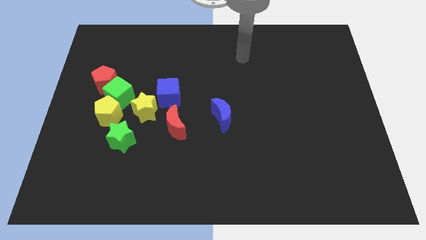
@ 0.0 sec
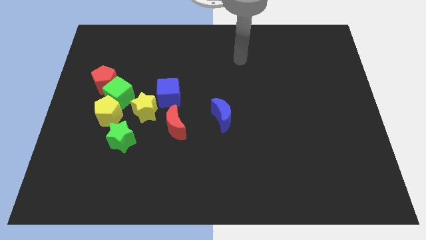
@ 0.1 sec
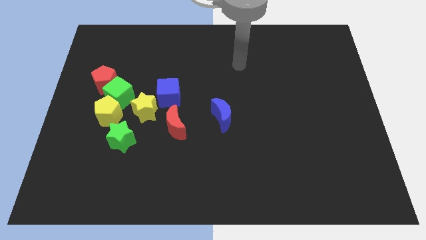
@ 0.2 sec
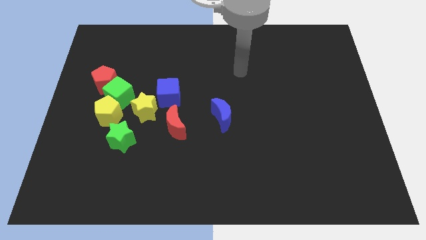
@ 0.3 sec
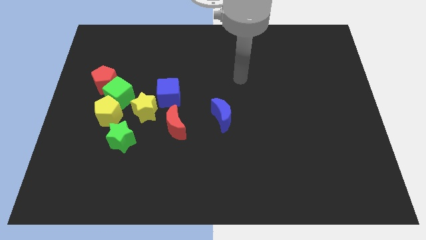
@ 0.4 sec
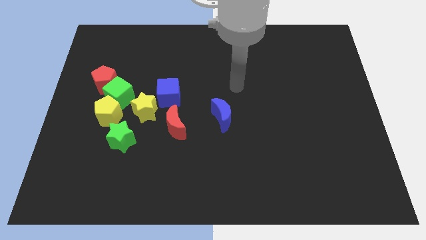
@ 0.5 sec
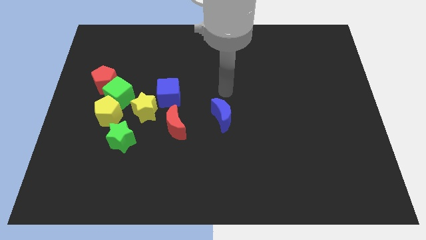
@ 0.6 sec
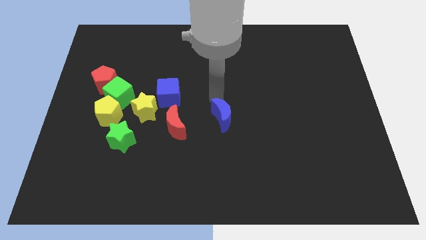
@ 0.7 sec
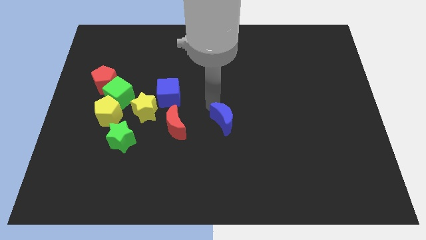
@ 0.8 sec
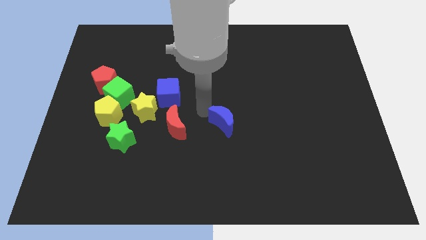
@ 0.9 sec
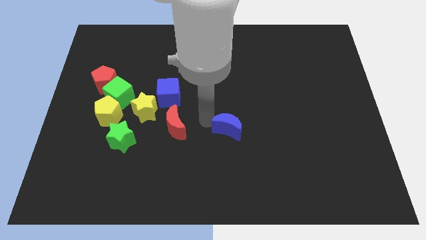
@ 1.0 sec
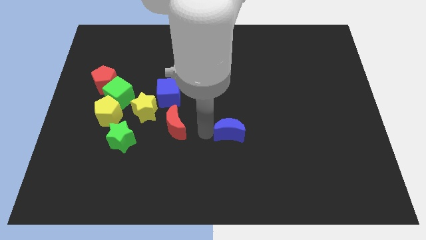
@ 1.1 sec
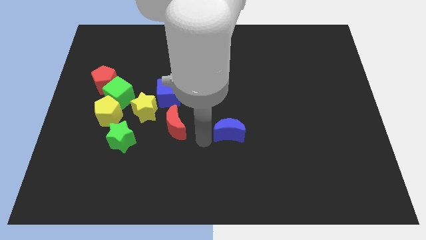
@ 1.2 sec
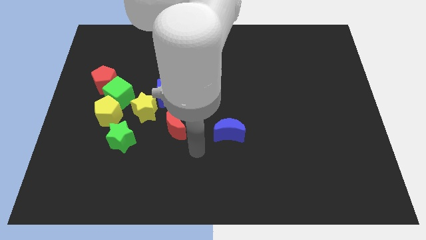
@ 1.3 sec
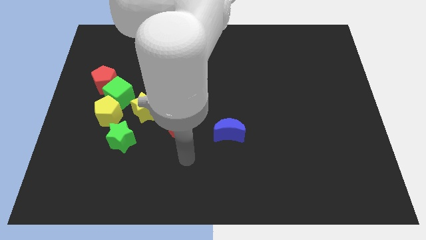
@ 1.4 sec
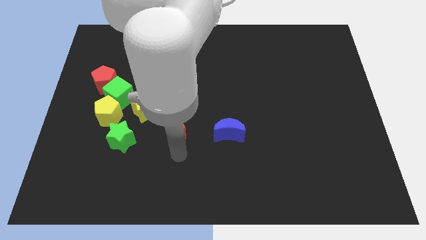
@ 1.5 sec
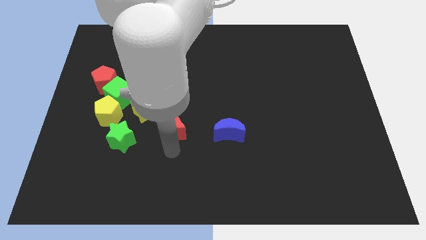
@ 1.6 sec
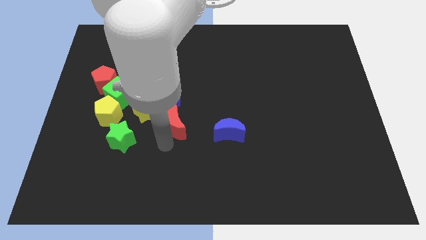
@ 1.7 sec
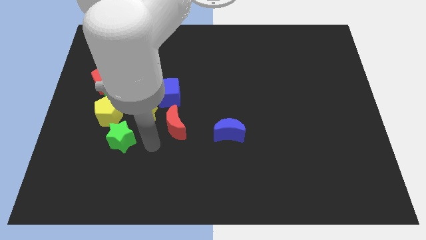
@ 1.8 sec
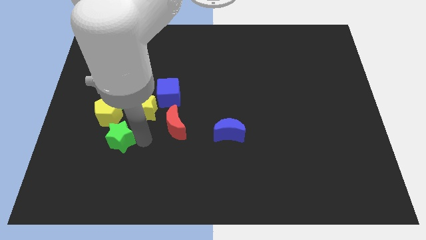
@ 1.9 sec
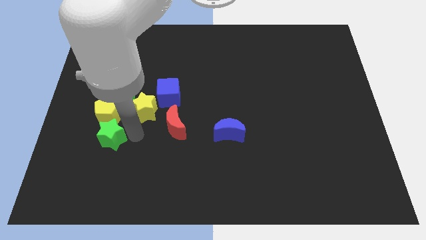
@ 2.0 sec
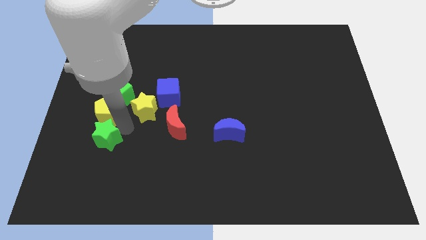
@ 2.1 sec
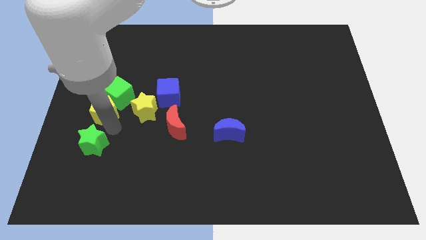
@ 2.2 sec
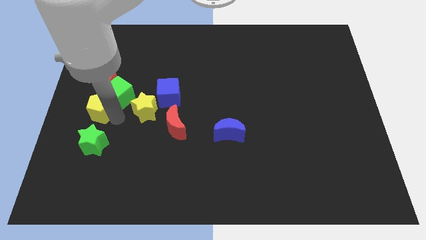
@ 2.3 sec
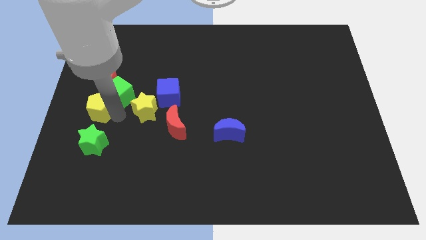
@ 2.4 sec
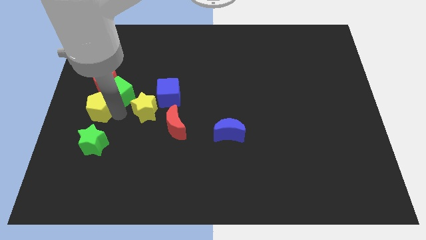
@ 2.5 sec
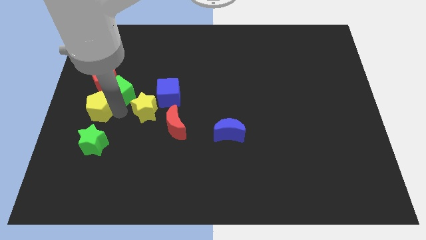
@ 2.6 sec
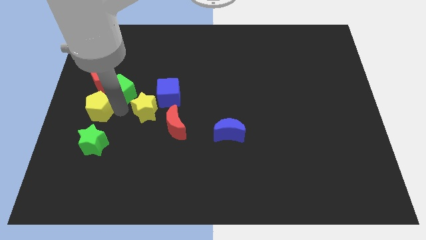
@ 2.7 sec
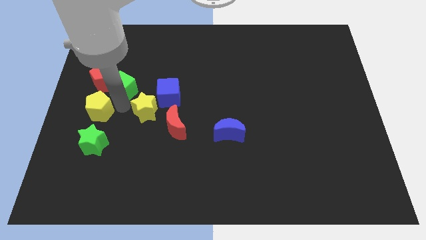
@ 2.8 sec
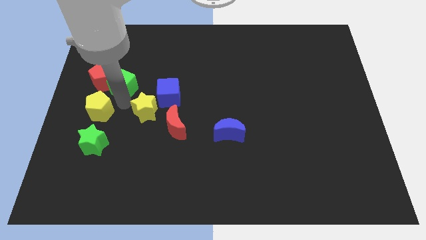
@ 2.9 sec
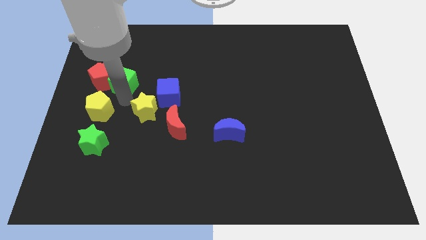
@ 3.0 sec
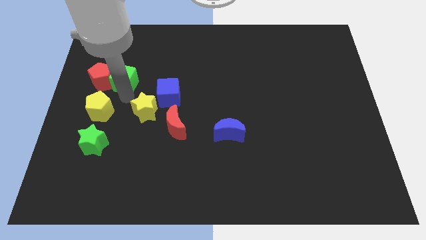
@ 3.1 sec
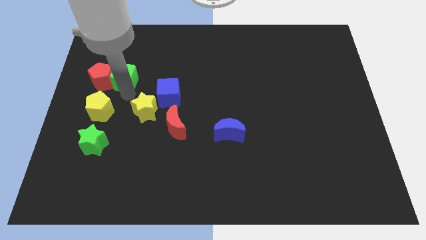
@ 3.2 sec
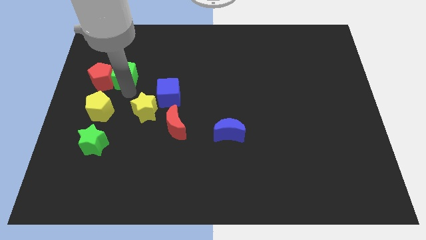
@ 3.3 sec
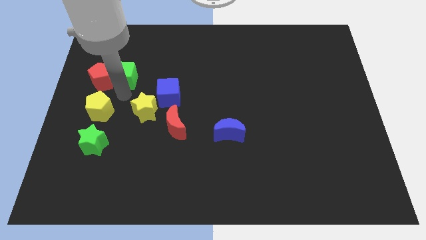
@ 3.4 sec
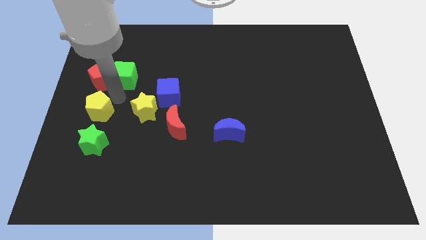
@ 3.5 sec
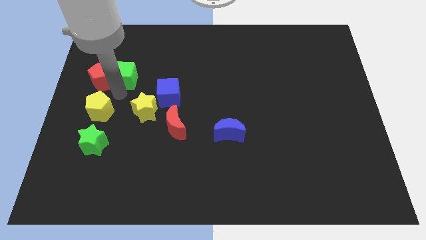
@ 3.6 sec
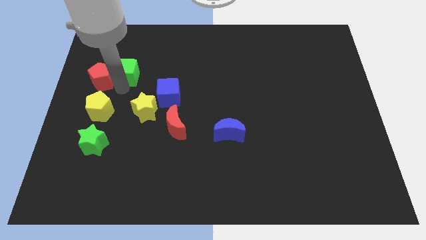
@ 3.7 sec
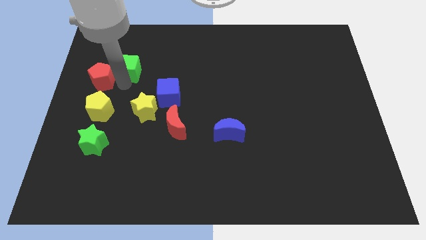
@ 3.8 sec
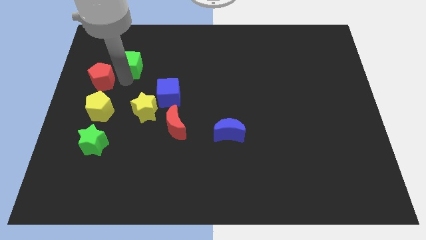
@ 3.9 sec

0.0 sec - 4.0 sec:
separate the green cube from the red pentagon, yellow pentagon, and yellow star

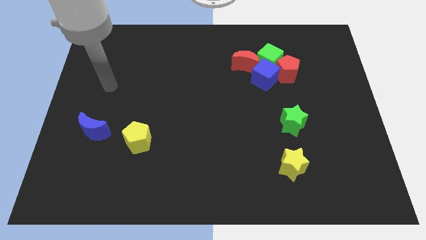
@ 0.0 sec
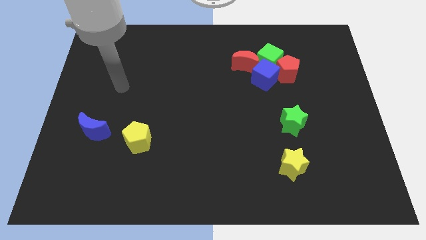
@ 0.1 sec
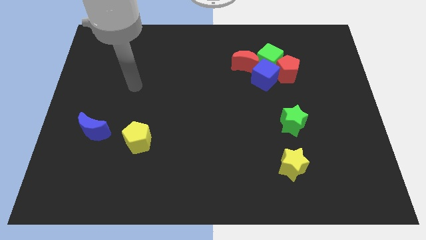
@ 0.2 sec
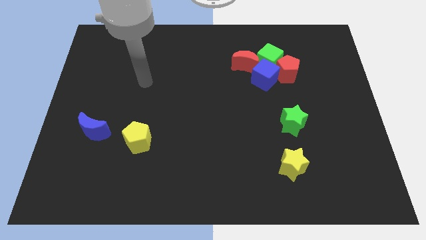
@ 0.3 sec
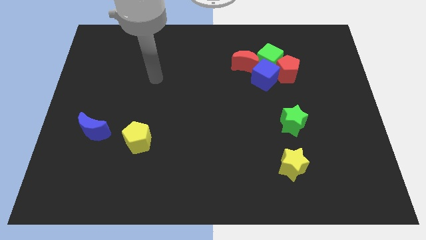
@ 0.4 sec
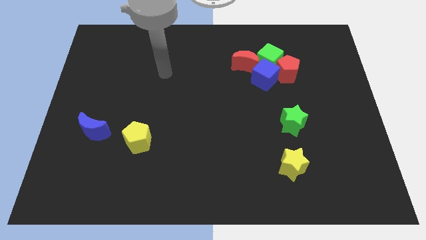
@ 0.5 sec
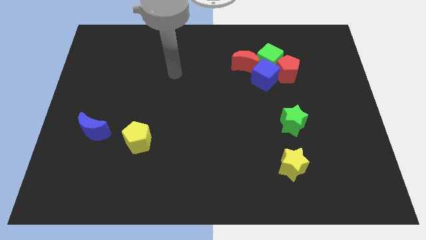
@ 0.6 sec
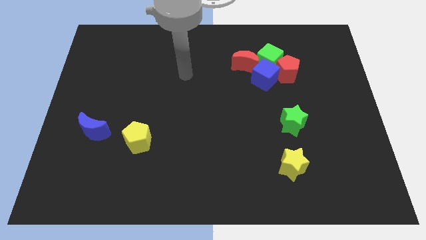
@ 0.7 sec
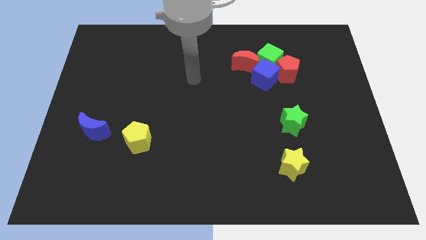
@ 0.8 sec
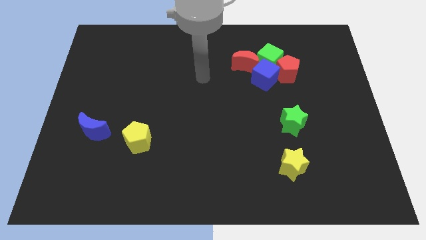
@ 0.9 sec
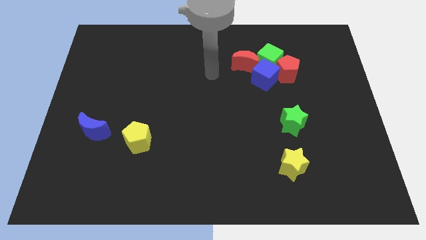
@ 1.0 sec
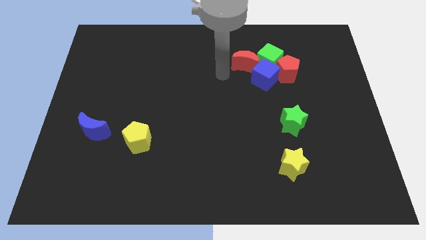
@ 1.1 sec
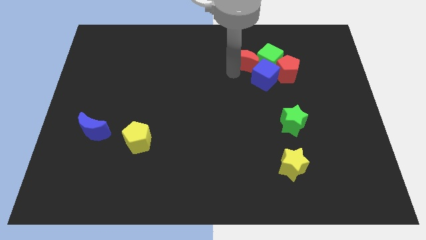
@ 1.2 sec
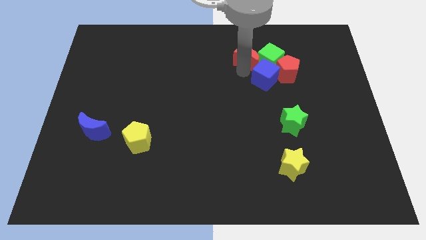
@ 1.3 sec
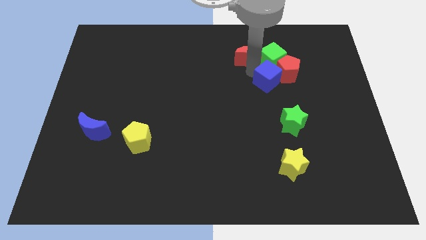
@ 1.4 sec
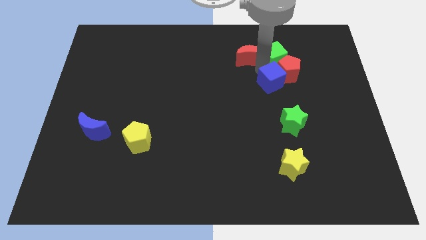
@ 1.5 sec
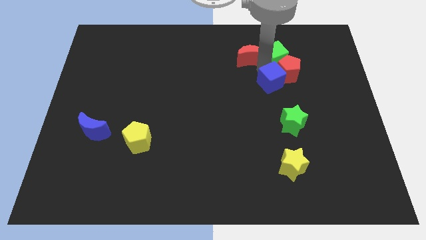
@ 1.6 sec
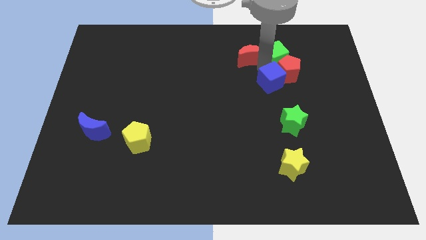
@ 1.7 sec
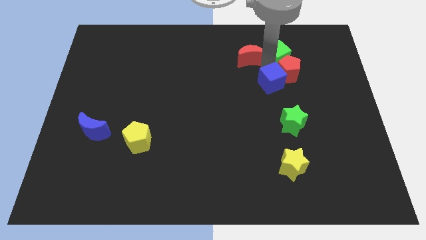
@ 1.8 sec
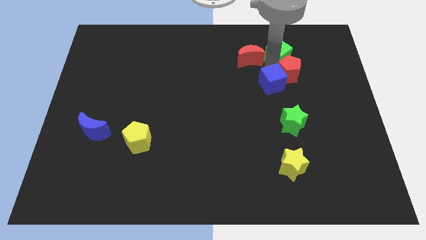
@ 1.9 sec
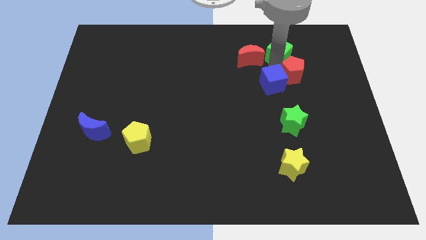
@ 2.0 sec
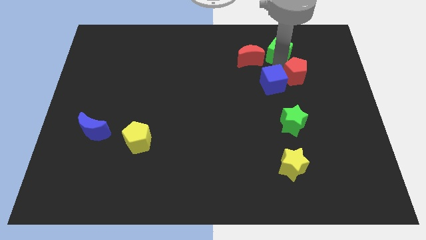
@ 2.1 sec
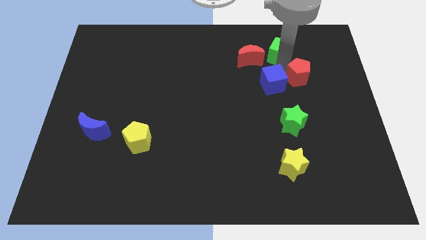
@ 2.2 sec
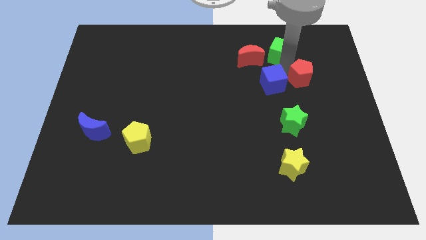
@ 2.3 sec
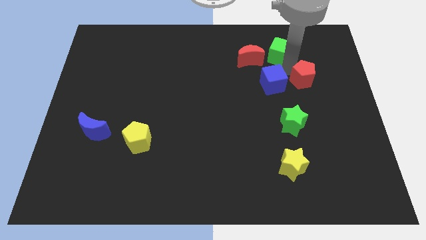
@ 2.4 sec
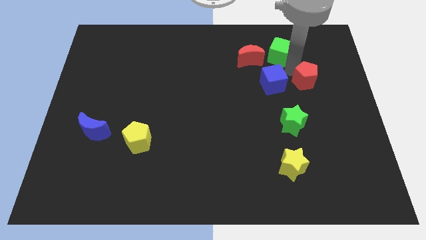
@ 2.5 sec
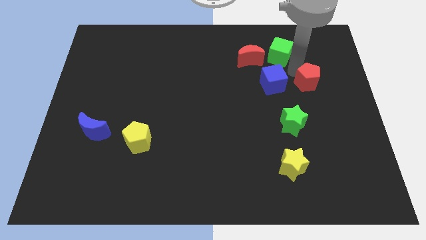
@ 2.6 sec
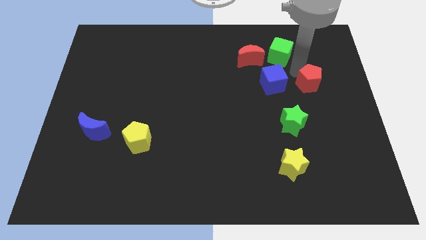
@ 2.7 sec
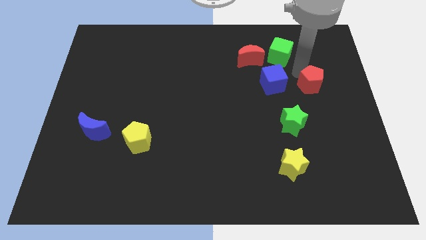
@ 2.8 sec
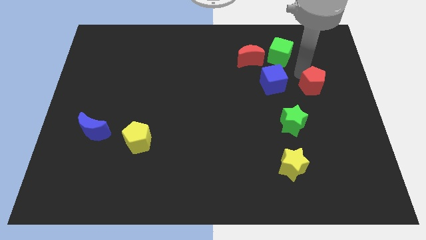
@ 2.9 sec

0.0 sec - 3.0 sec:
move the red pentagon away from the green cube and blue cube

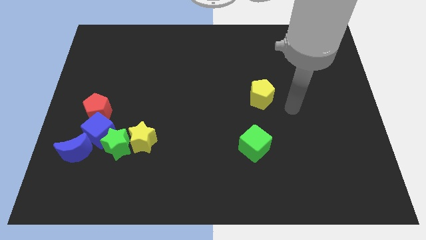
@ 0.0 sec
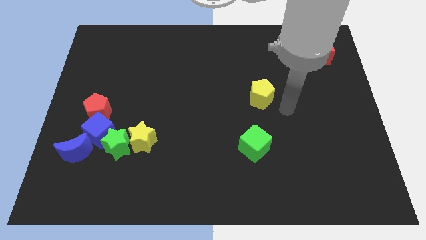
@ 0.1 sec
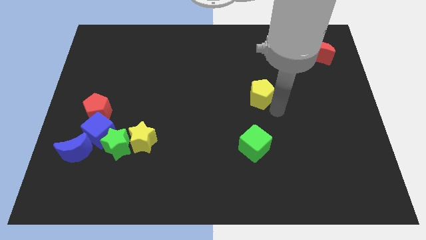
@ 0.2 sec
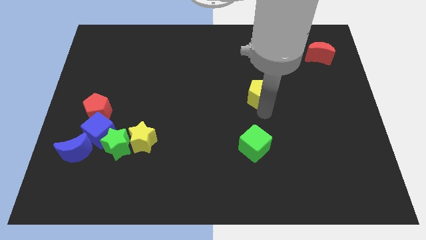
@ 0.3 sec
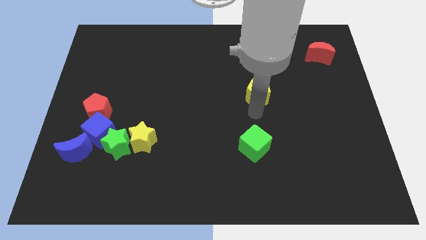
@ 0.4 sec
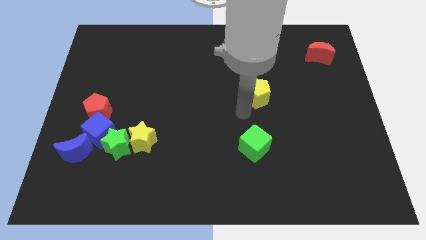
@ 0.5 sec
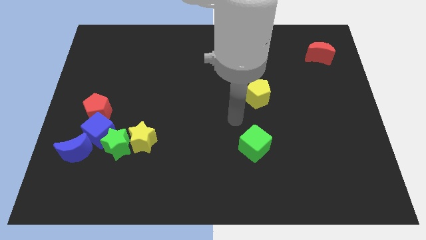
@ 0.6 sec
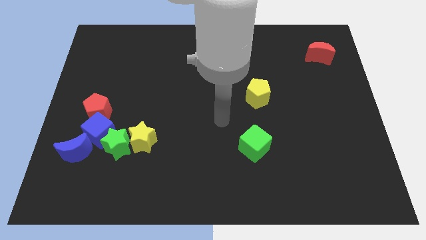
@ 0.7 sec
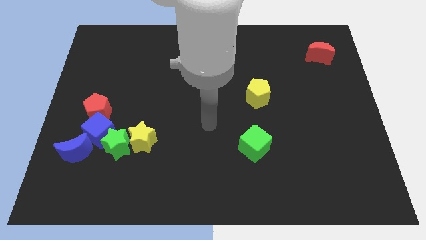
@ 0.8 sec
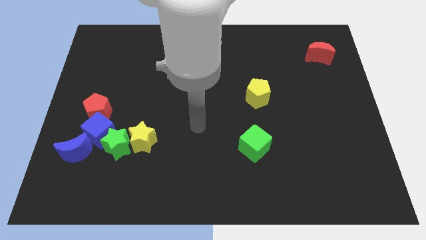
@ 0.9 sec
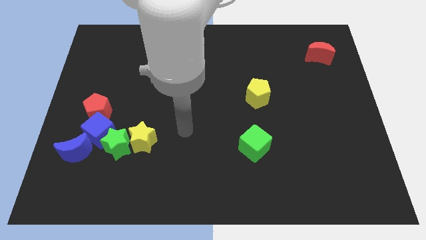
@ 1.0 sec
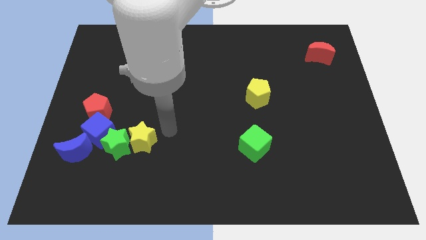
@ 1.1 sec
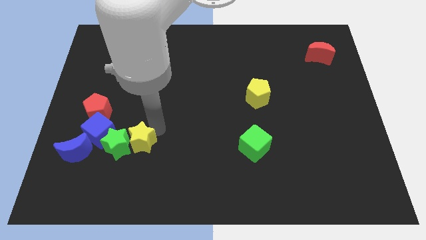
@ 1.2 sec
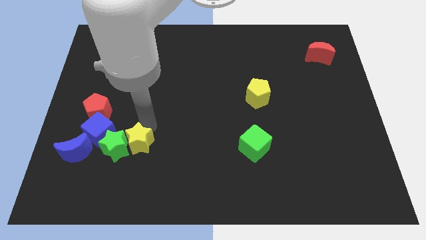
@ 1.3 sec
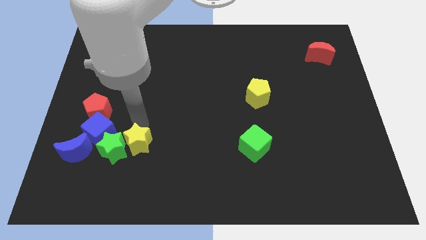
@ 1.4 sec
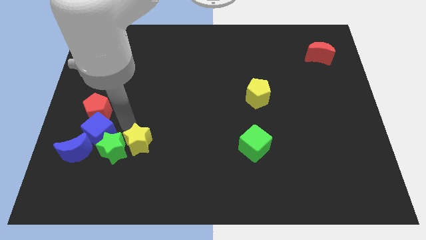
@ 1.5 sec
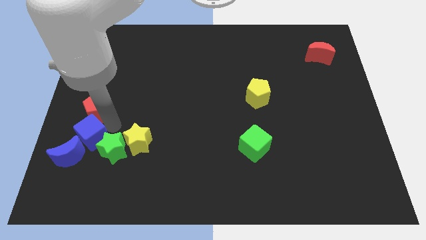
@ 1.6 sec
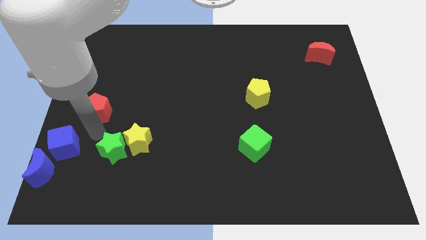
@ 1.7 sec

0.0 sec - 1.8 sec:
pull the red pentagon apart from the blue cube

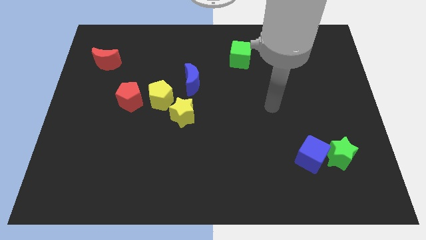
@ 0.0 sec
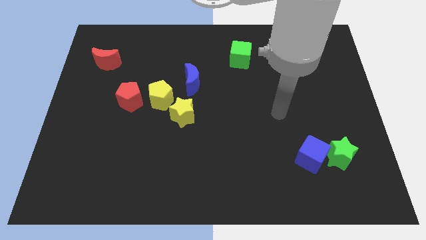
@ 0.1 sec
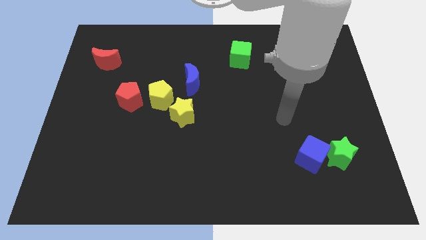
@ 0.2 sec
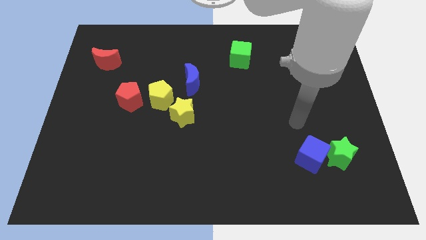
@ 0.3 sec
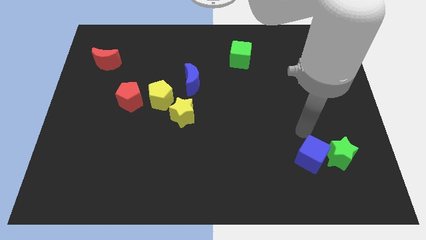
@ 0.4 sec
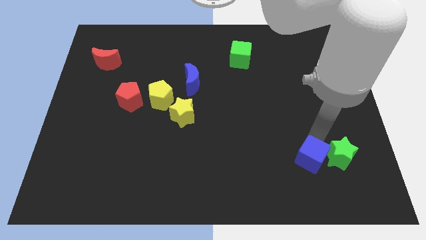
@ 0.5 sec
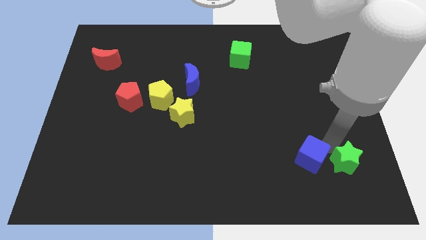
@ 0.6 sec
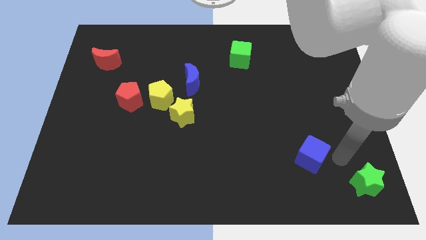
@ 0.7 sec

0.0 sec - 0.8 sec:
separate the blue cube from the green star
